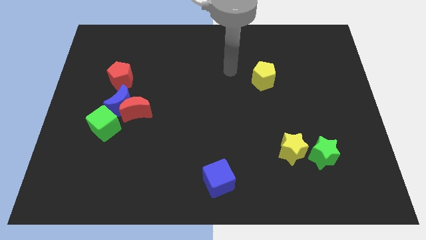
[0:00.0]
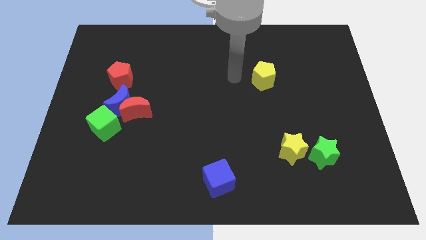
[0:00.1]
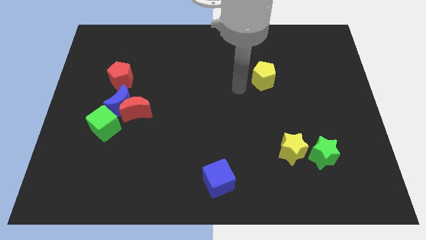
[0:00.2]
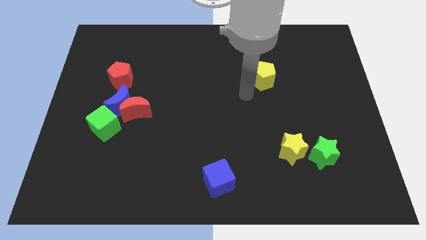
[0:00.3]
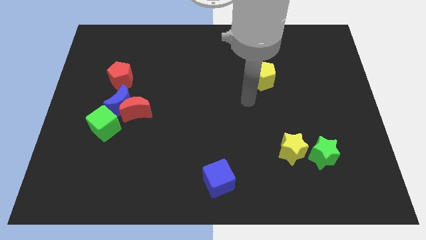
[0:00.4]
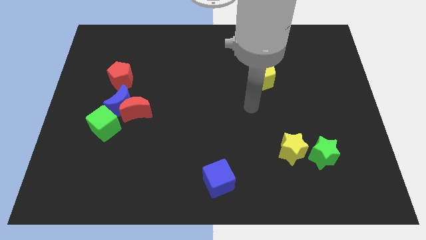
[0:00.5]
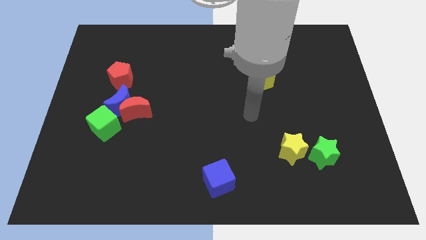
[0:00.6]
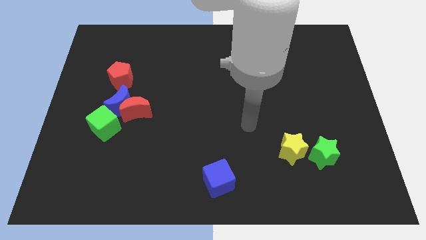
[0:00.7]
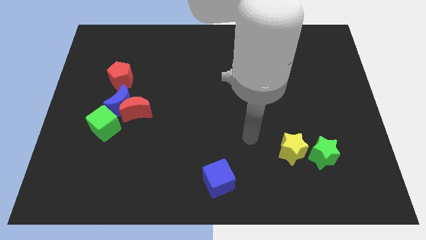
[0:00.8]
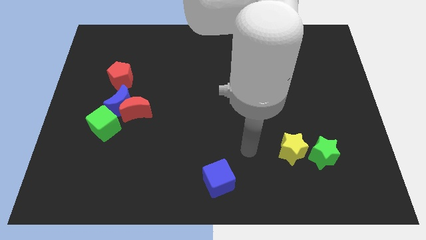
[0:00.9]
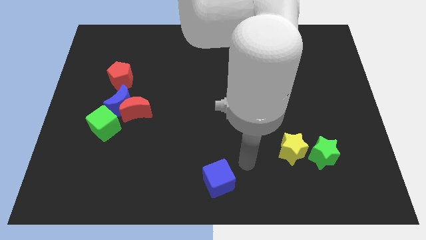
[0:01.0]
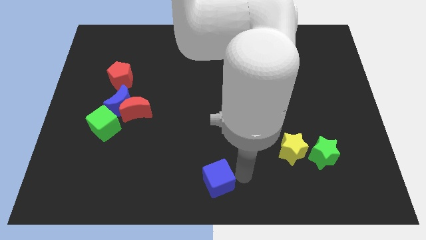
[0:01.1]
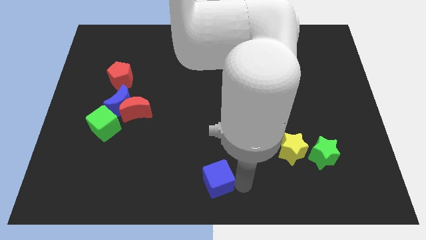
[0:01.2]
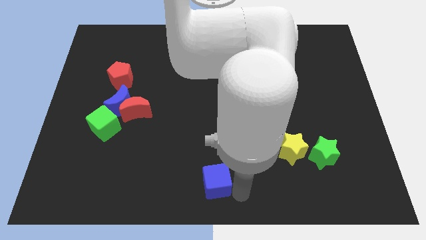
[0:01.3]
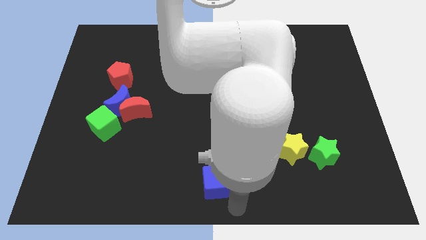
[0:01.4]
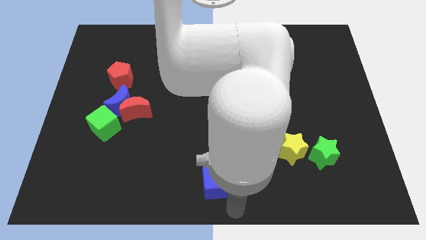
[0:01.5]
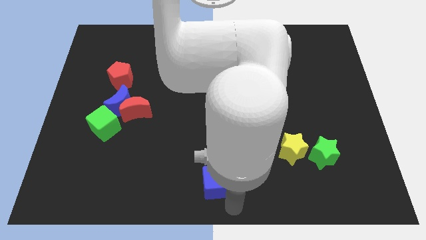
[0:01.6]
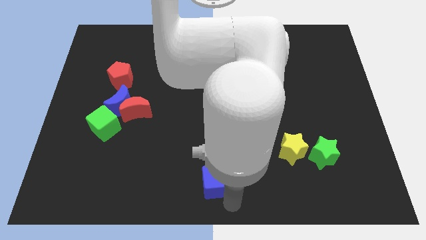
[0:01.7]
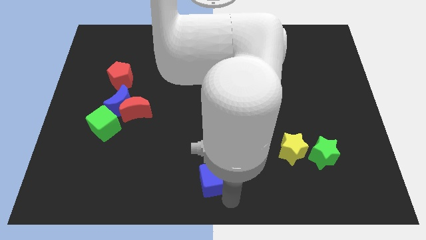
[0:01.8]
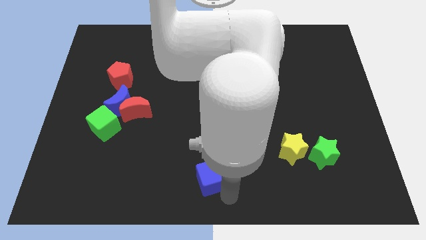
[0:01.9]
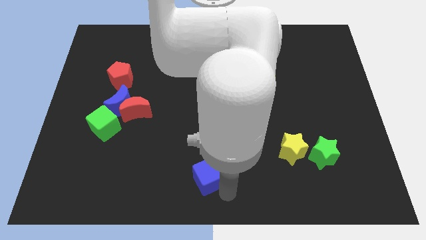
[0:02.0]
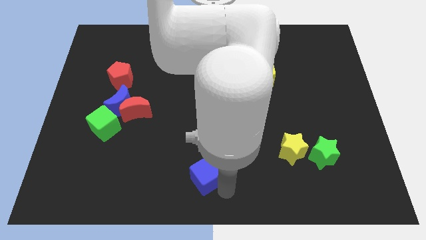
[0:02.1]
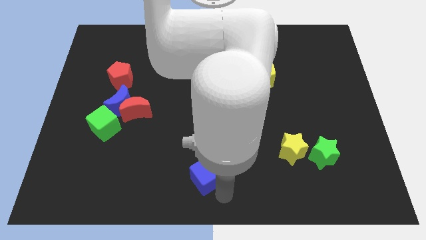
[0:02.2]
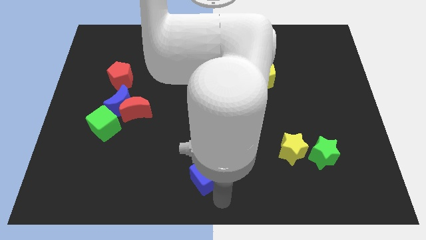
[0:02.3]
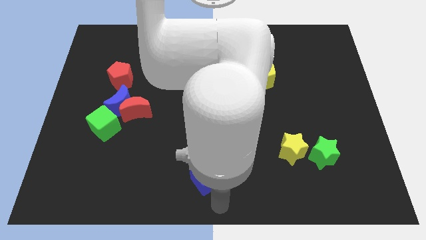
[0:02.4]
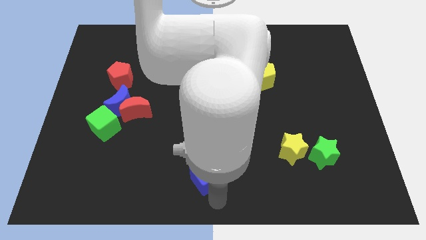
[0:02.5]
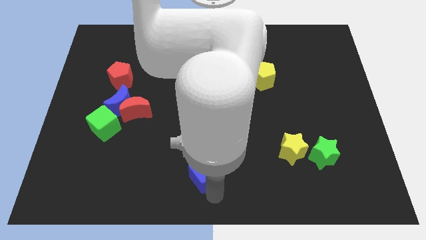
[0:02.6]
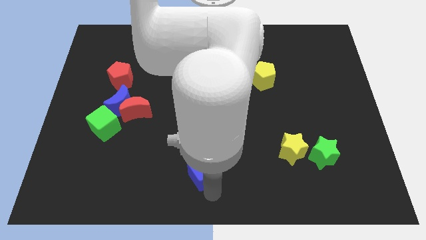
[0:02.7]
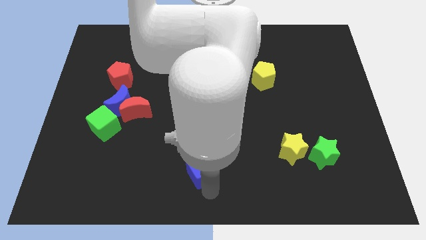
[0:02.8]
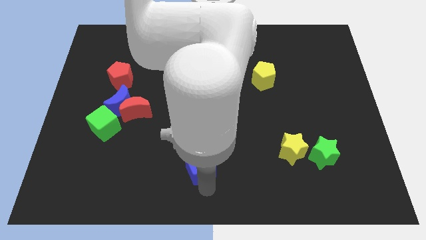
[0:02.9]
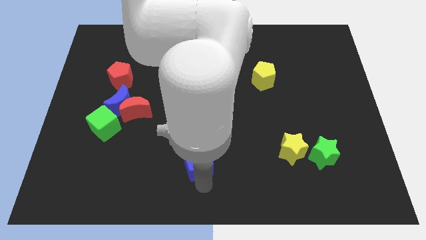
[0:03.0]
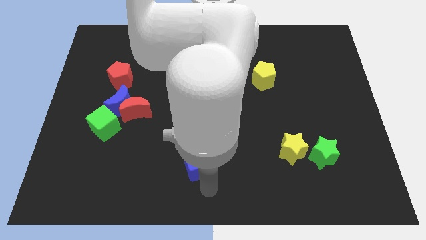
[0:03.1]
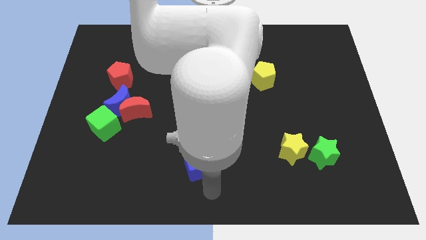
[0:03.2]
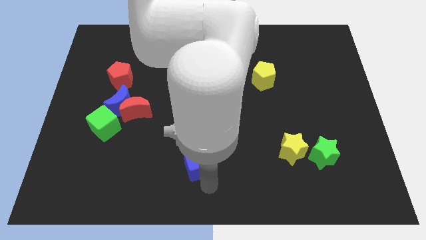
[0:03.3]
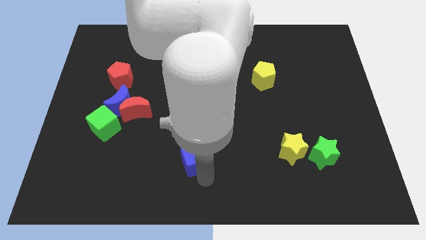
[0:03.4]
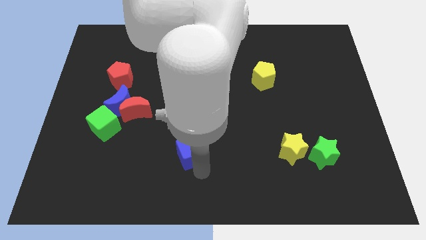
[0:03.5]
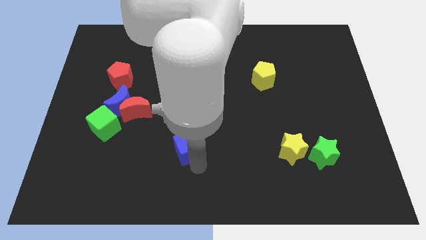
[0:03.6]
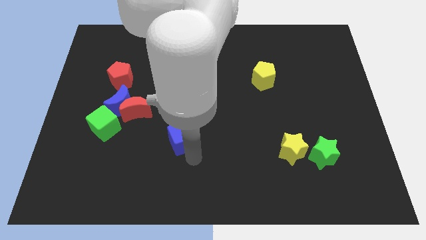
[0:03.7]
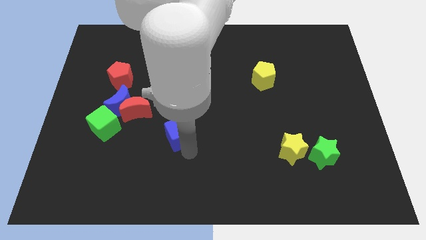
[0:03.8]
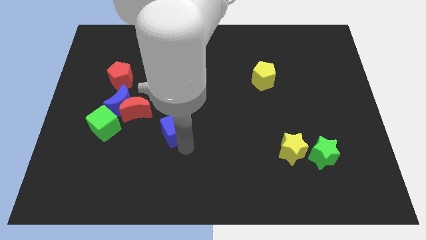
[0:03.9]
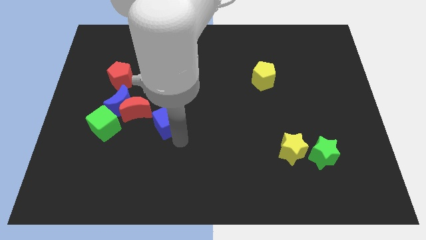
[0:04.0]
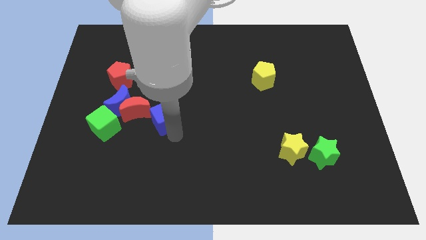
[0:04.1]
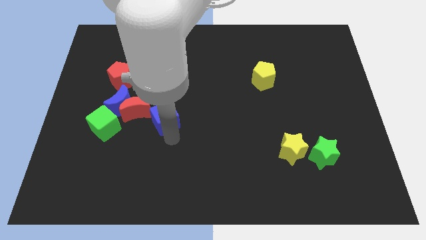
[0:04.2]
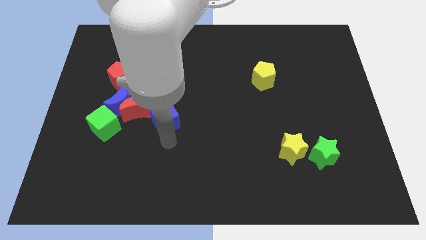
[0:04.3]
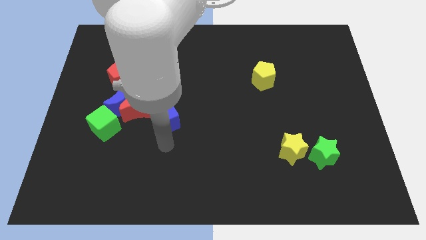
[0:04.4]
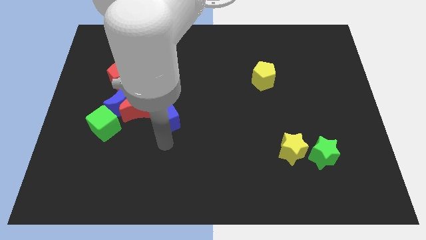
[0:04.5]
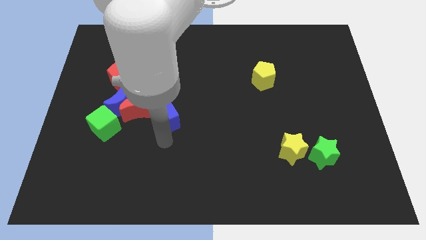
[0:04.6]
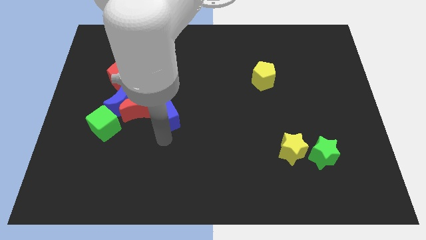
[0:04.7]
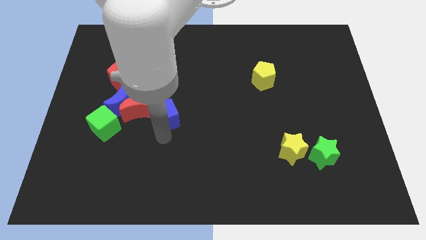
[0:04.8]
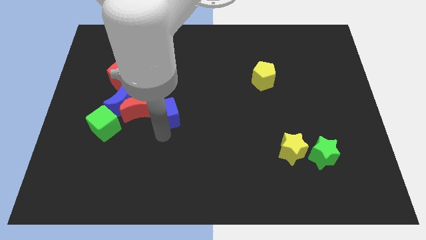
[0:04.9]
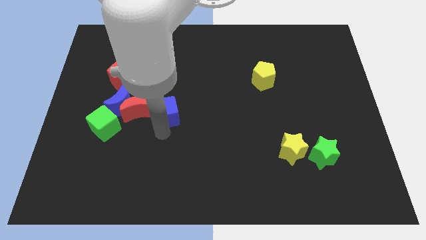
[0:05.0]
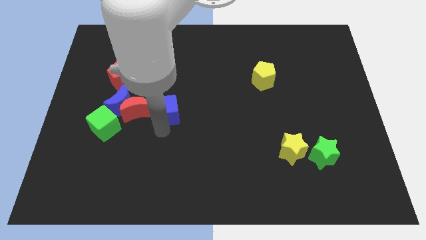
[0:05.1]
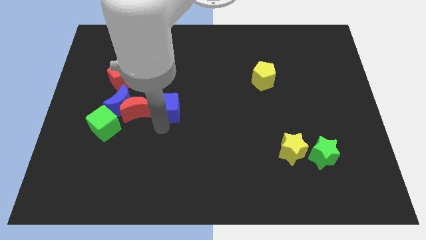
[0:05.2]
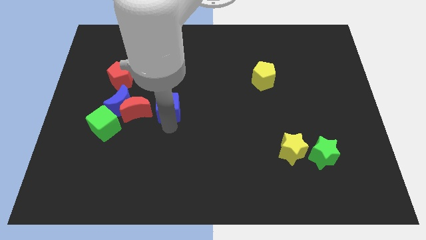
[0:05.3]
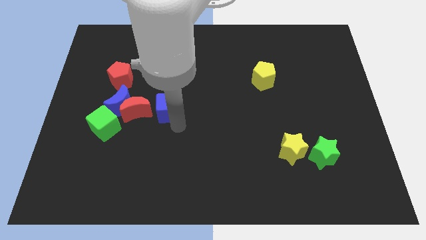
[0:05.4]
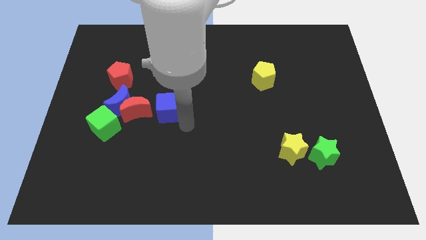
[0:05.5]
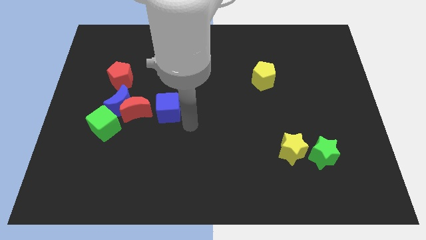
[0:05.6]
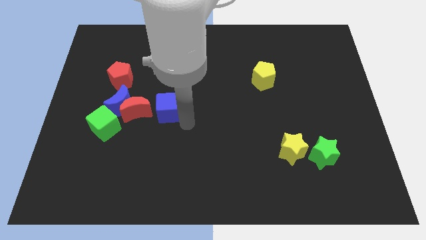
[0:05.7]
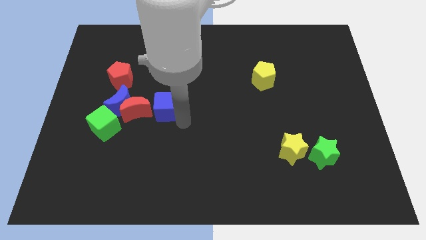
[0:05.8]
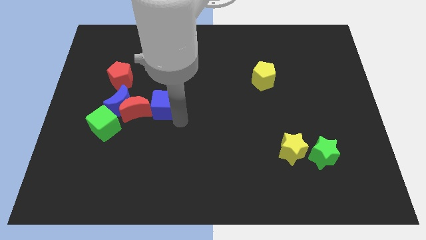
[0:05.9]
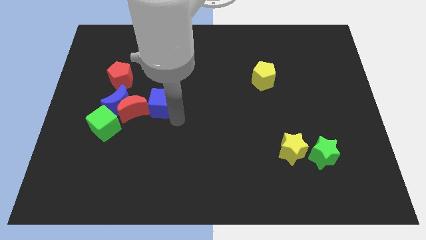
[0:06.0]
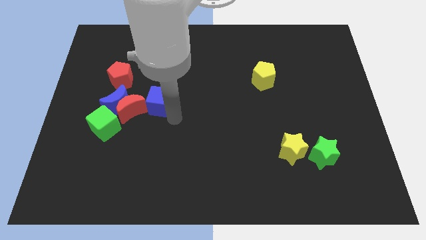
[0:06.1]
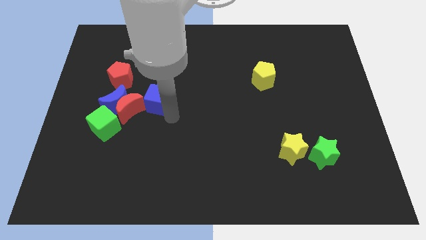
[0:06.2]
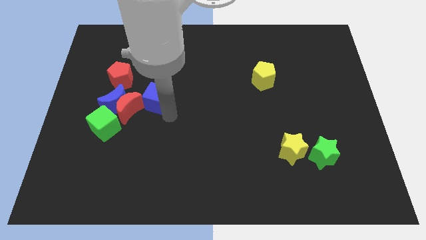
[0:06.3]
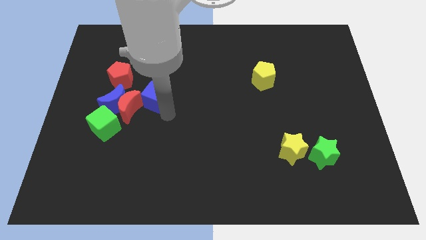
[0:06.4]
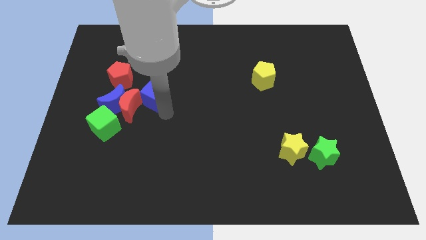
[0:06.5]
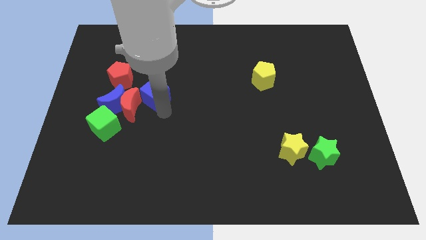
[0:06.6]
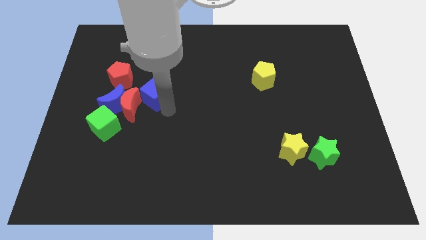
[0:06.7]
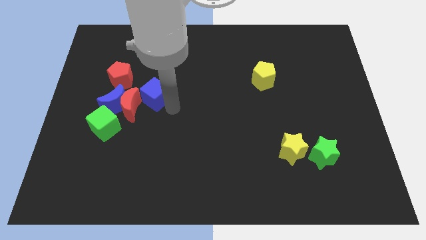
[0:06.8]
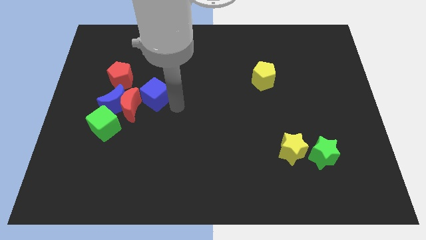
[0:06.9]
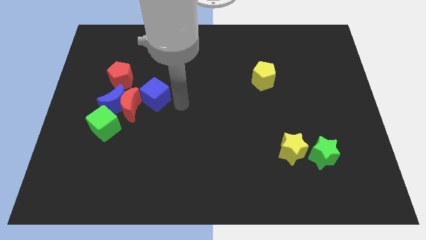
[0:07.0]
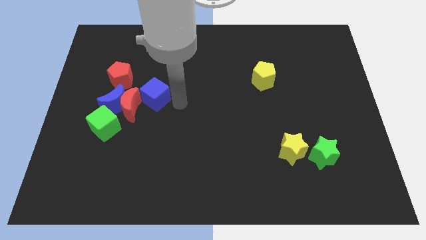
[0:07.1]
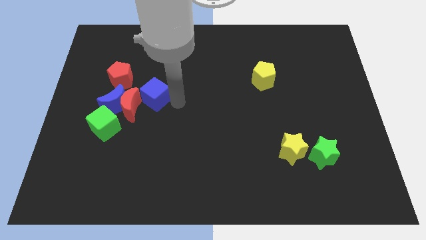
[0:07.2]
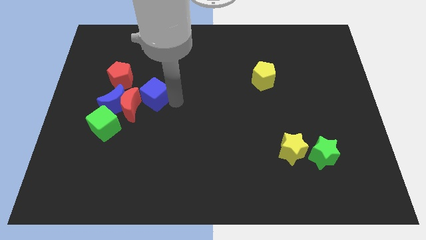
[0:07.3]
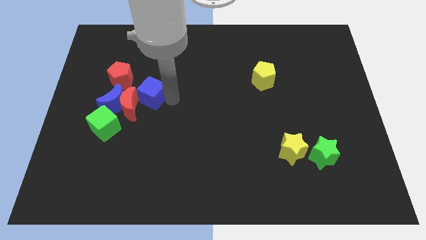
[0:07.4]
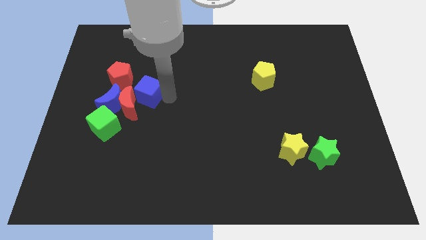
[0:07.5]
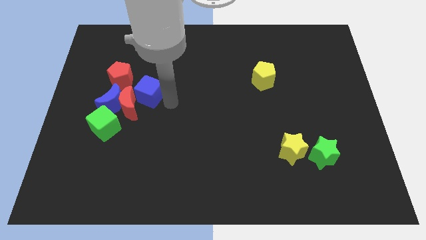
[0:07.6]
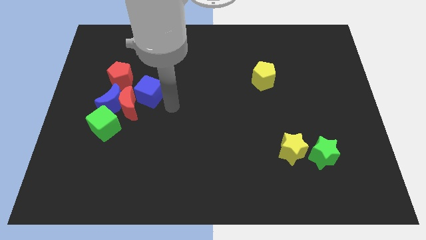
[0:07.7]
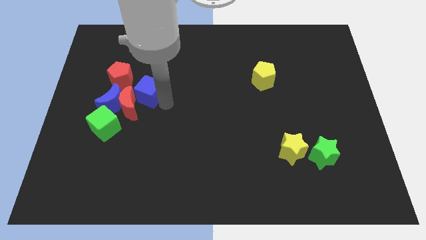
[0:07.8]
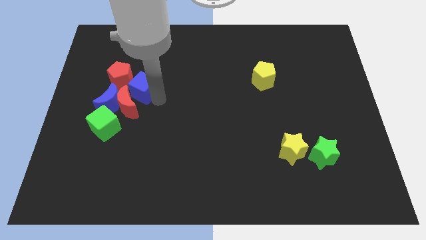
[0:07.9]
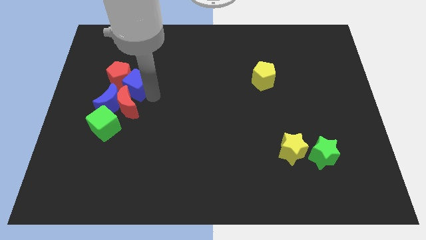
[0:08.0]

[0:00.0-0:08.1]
move the blue cube to the red pentagon
